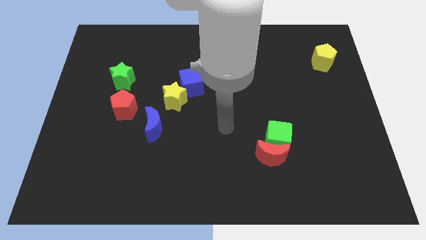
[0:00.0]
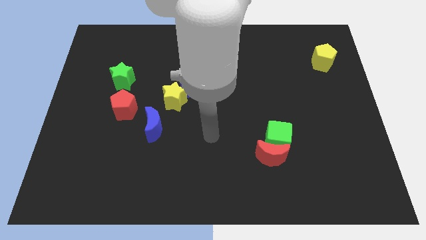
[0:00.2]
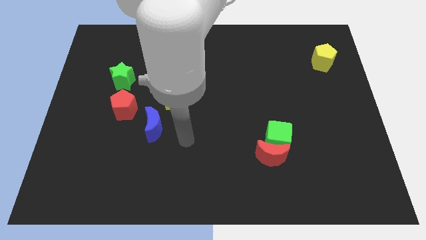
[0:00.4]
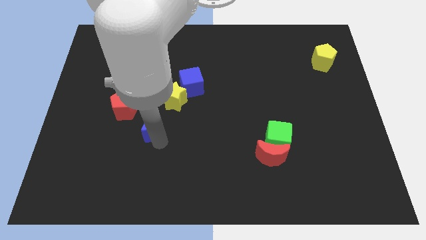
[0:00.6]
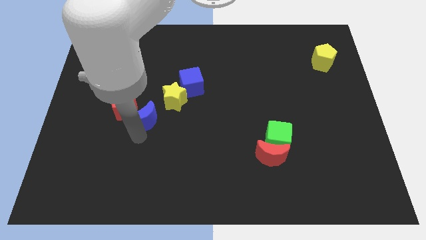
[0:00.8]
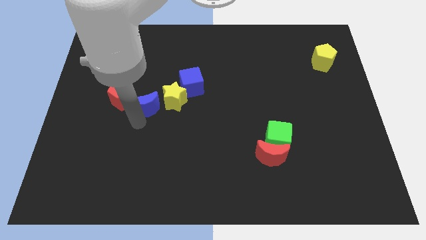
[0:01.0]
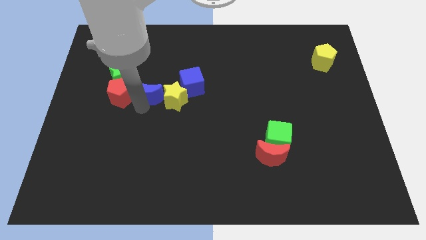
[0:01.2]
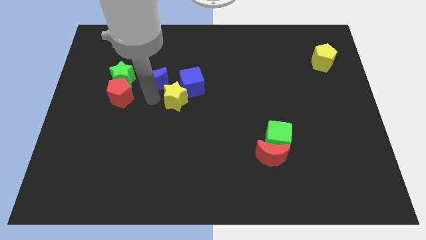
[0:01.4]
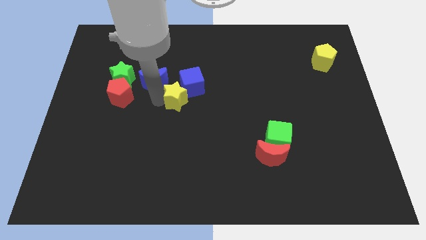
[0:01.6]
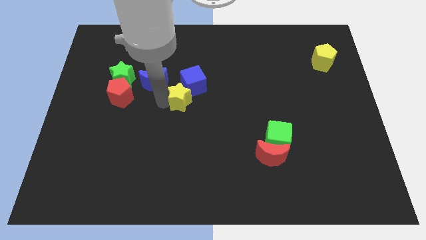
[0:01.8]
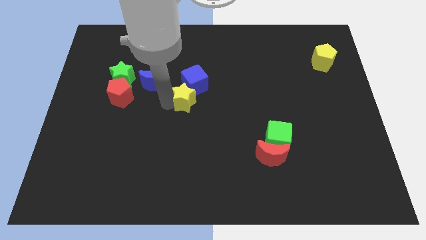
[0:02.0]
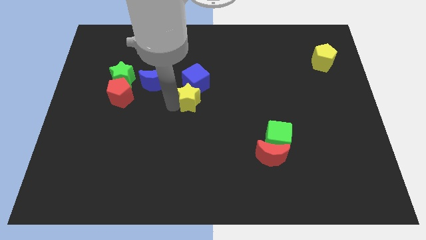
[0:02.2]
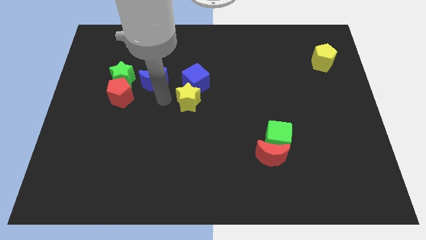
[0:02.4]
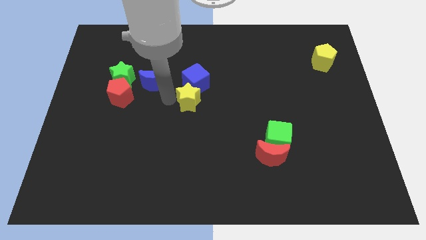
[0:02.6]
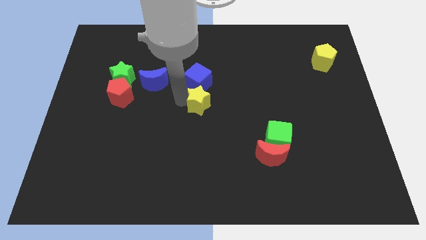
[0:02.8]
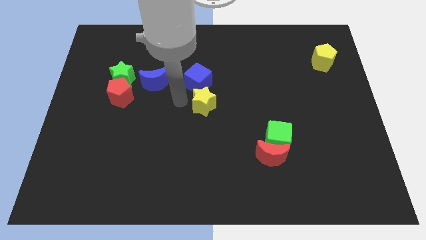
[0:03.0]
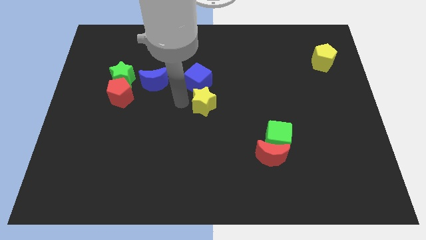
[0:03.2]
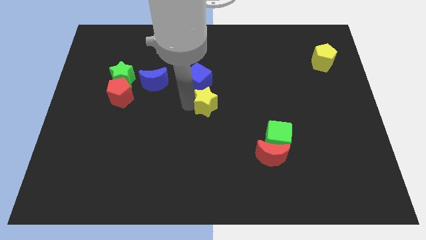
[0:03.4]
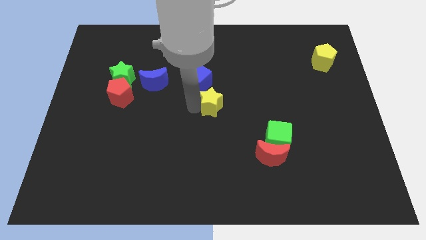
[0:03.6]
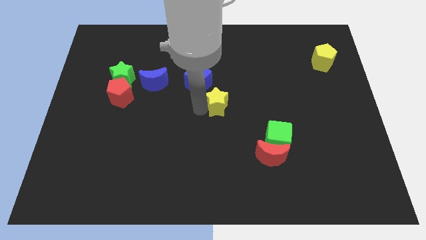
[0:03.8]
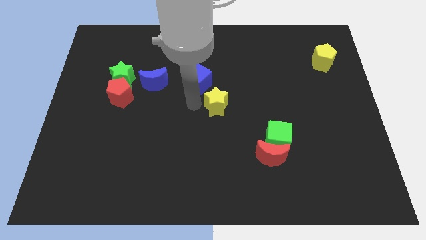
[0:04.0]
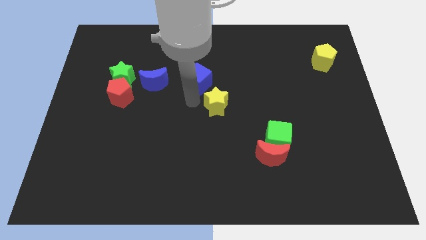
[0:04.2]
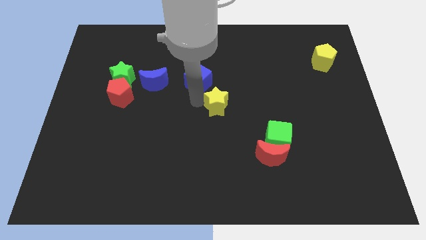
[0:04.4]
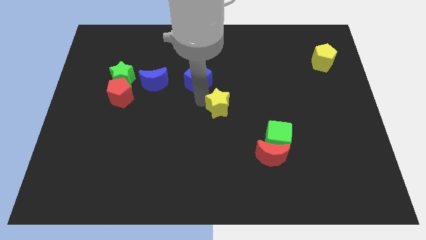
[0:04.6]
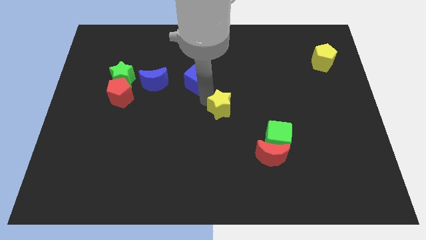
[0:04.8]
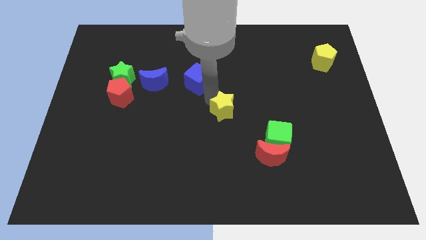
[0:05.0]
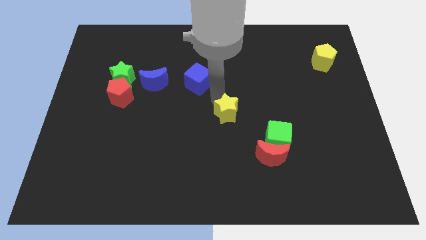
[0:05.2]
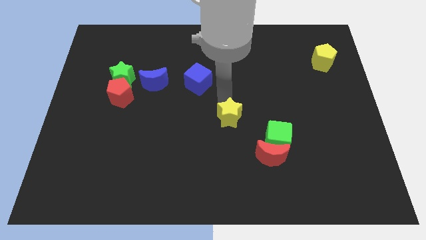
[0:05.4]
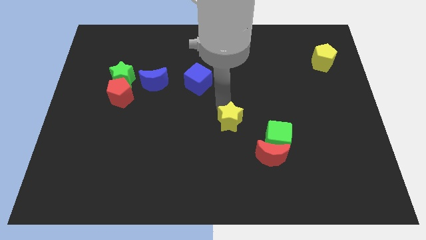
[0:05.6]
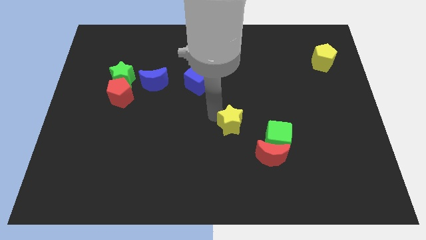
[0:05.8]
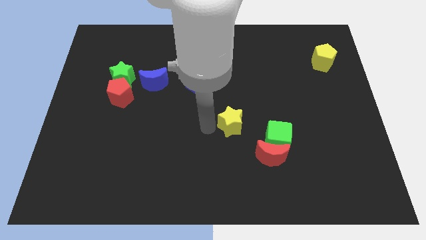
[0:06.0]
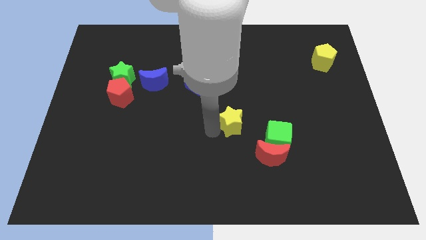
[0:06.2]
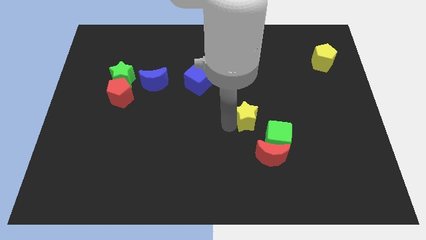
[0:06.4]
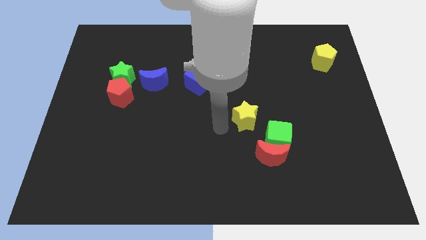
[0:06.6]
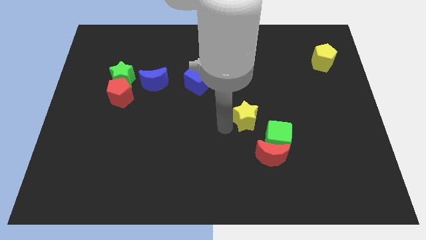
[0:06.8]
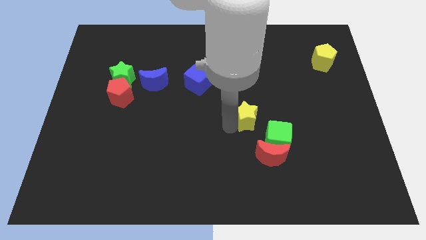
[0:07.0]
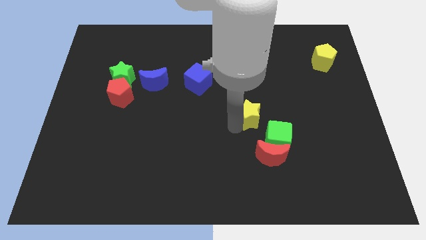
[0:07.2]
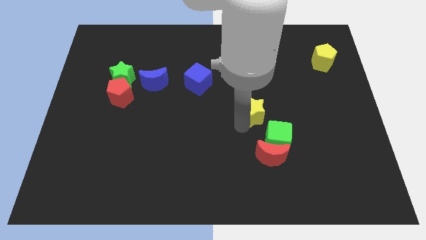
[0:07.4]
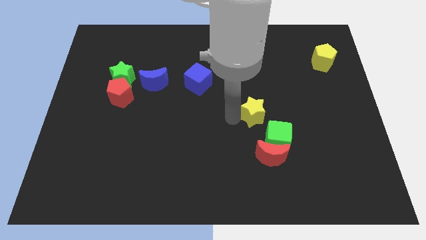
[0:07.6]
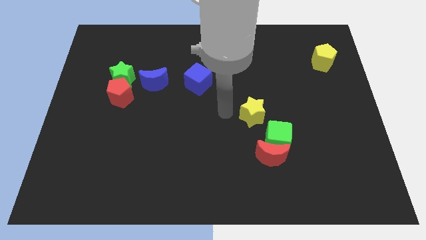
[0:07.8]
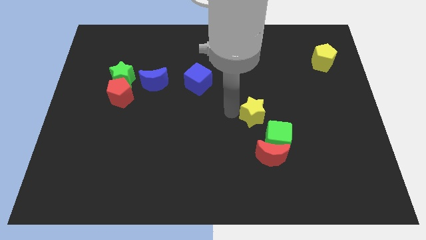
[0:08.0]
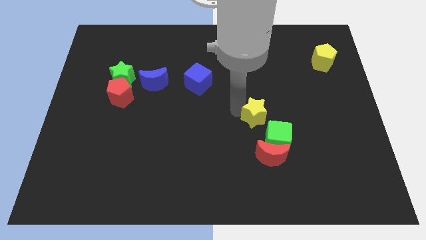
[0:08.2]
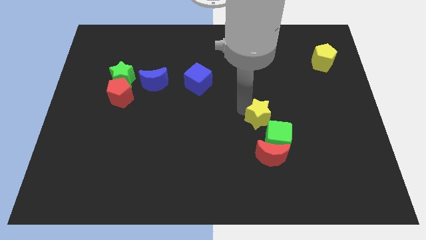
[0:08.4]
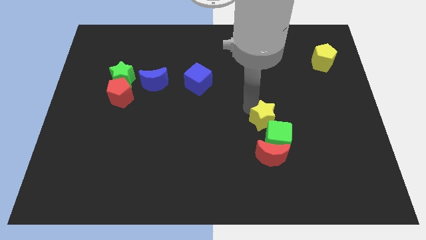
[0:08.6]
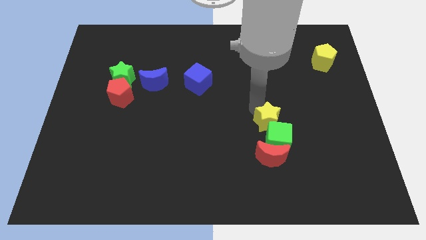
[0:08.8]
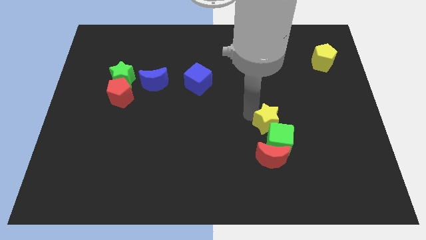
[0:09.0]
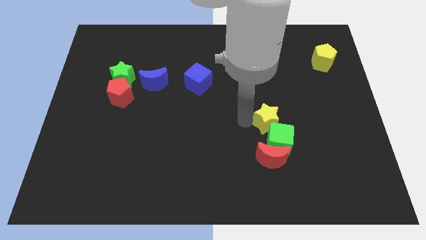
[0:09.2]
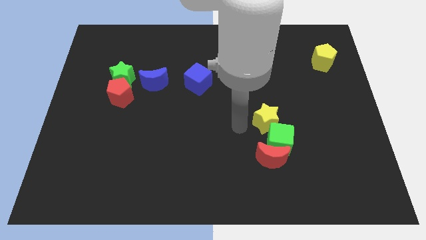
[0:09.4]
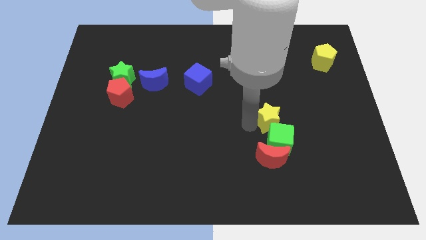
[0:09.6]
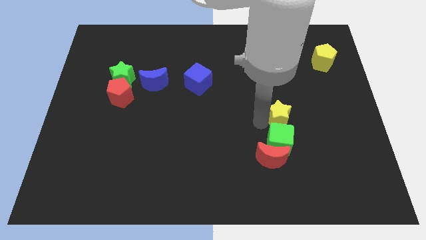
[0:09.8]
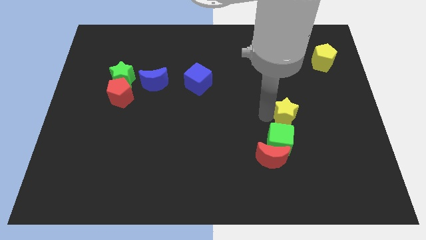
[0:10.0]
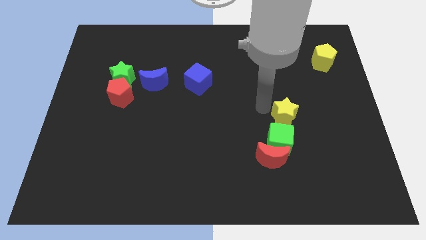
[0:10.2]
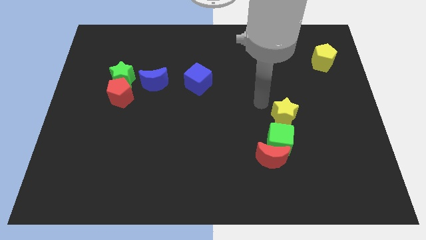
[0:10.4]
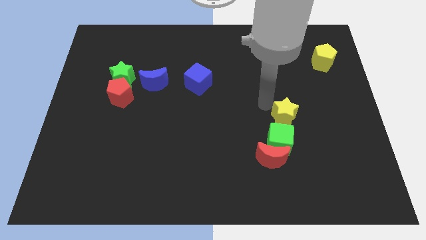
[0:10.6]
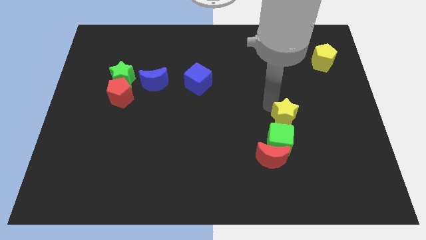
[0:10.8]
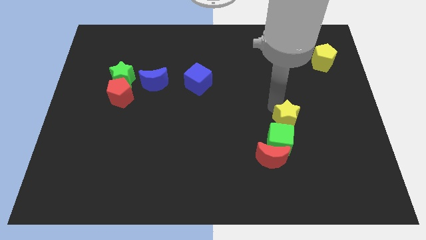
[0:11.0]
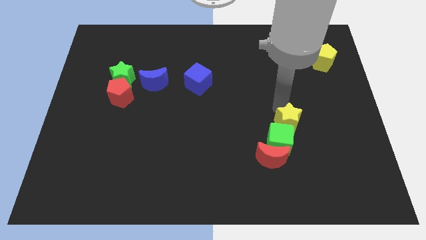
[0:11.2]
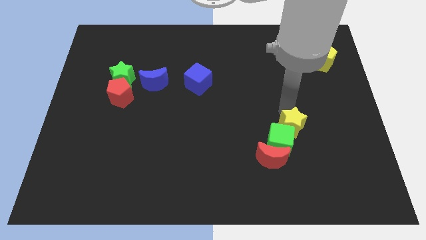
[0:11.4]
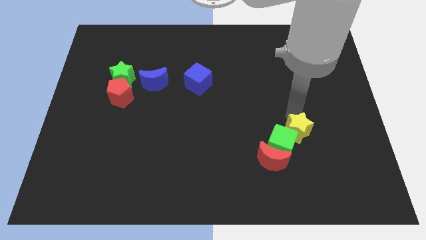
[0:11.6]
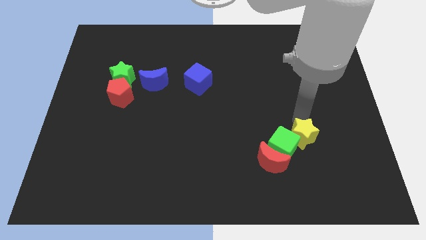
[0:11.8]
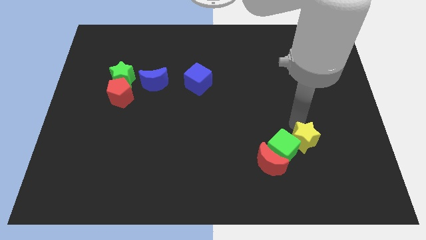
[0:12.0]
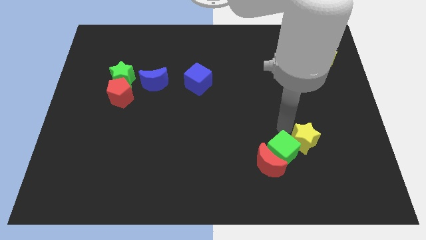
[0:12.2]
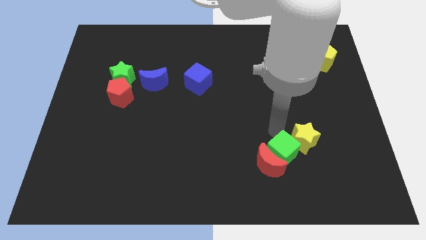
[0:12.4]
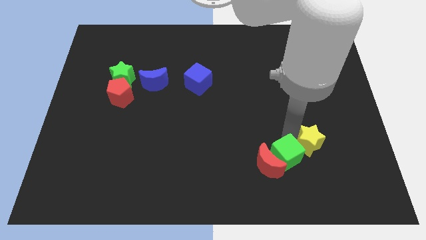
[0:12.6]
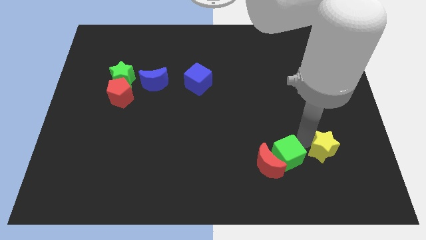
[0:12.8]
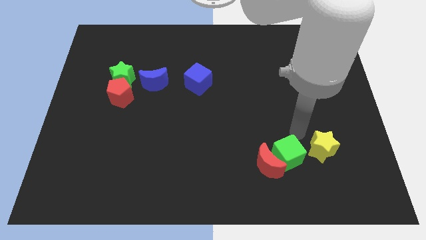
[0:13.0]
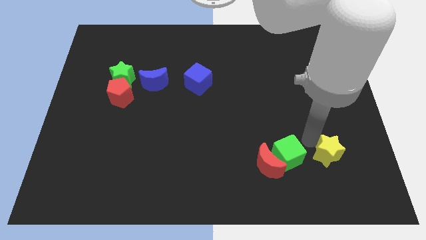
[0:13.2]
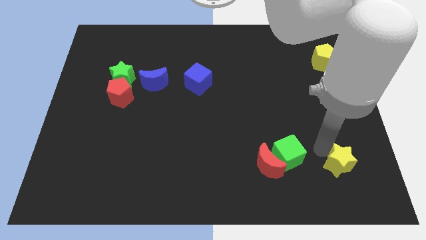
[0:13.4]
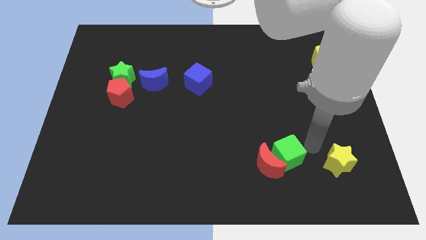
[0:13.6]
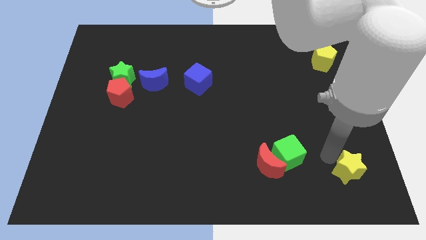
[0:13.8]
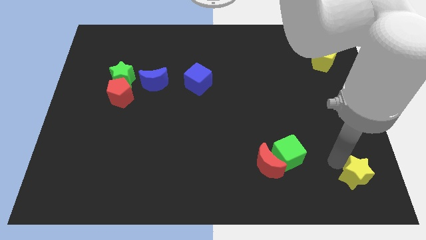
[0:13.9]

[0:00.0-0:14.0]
push the yellow star to the bottom right of the board
